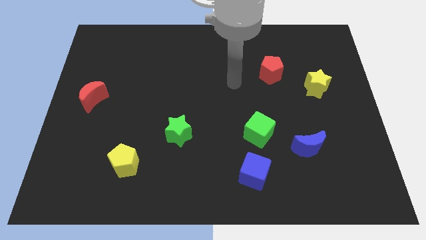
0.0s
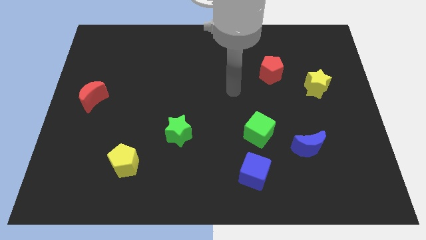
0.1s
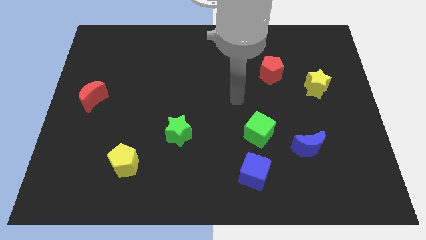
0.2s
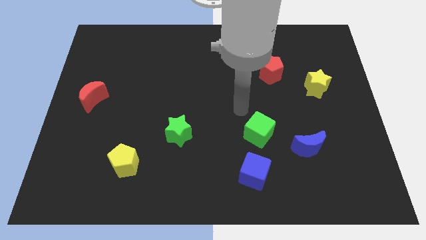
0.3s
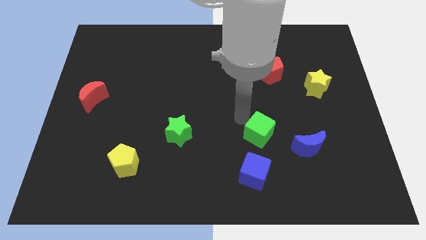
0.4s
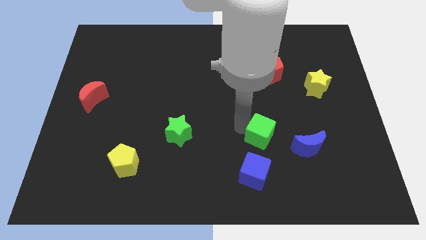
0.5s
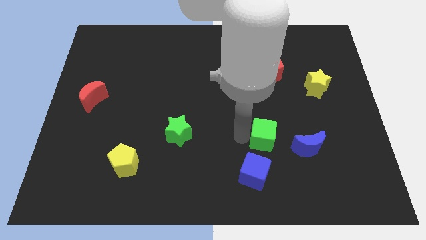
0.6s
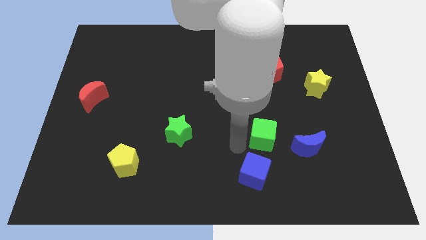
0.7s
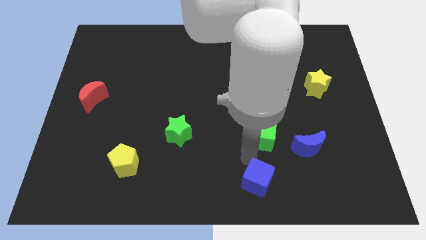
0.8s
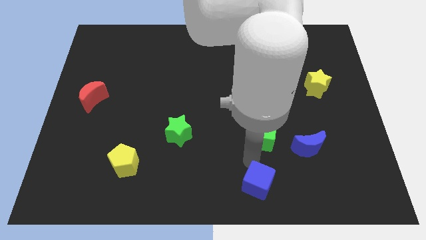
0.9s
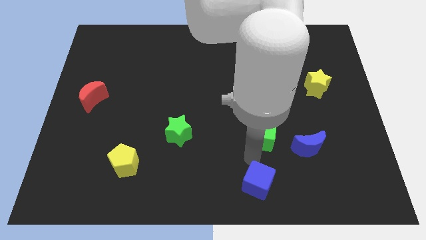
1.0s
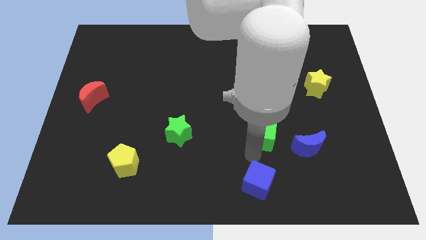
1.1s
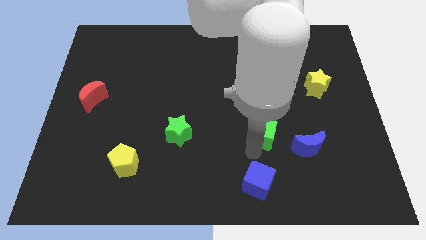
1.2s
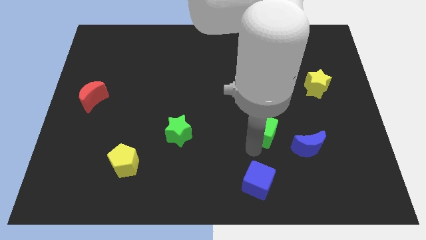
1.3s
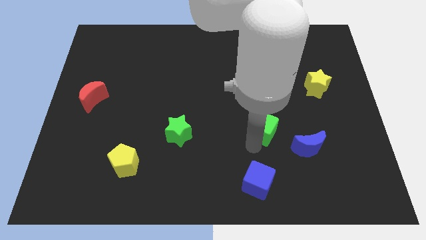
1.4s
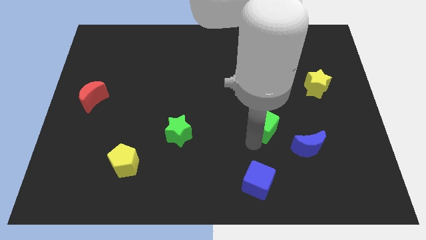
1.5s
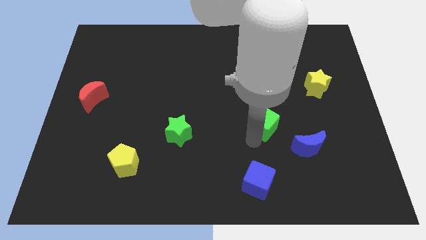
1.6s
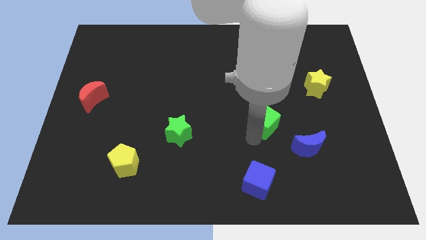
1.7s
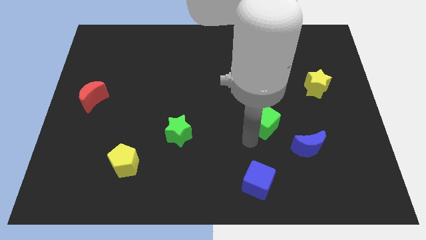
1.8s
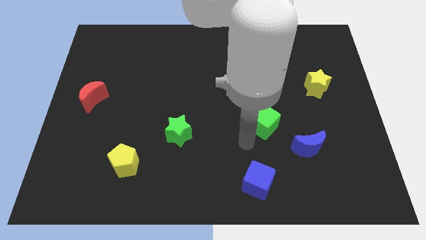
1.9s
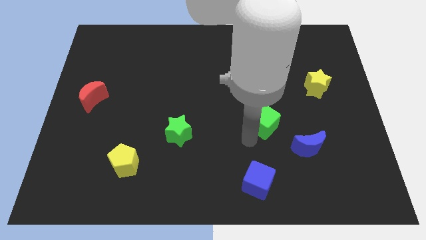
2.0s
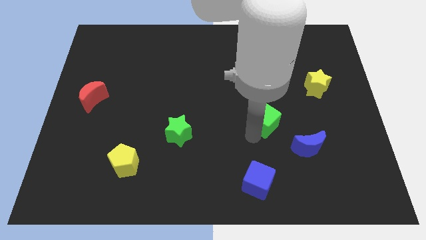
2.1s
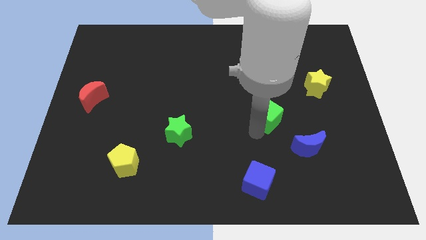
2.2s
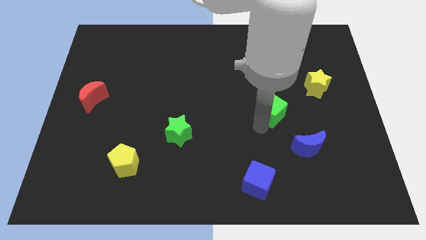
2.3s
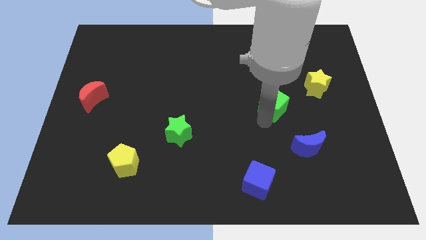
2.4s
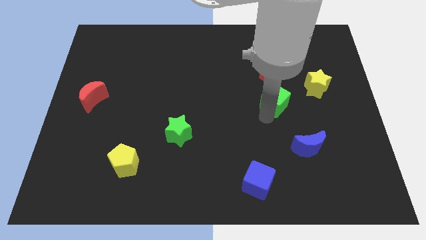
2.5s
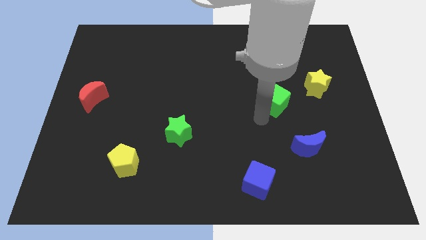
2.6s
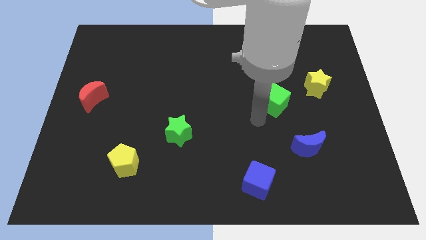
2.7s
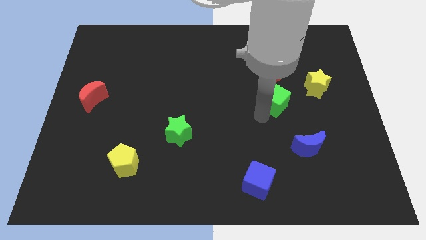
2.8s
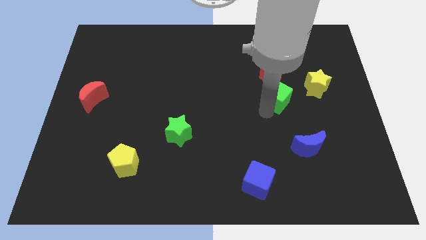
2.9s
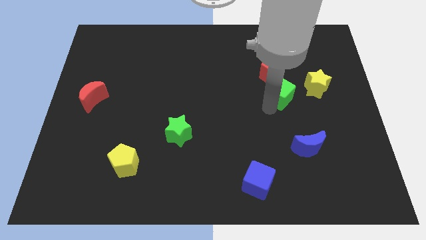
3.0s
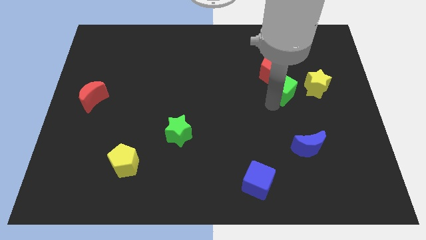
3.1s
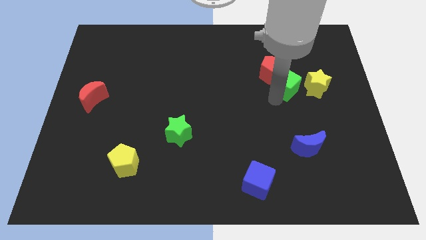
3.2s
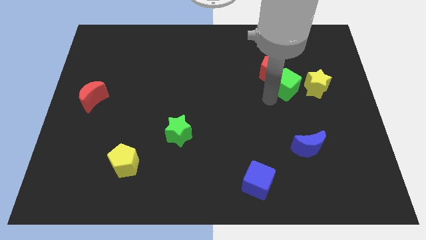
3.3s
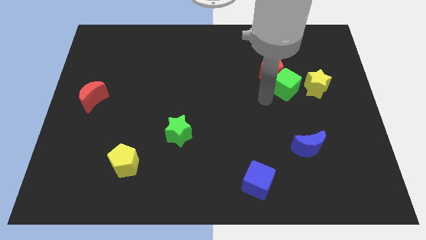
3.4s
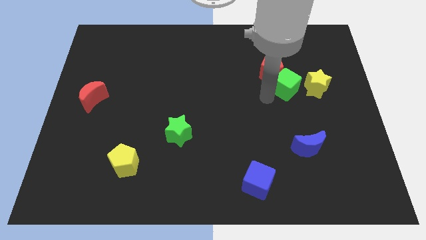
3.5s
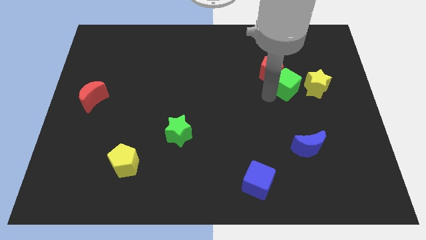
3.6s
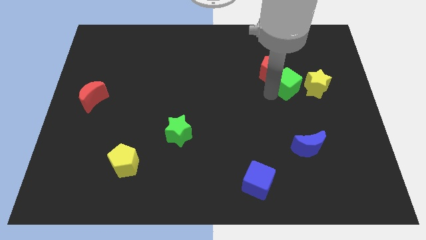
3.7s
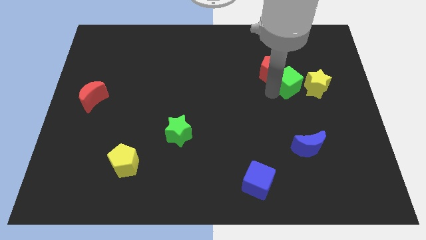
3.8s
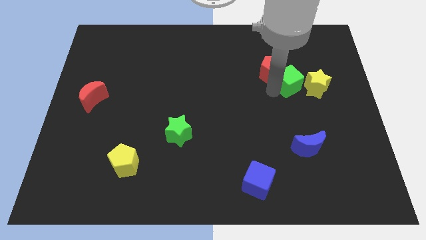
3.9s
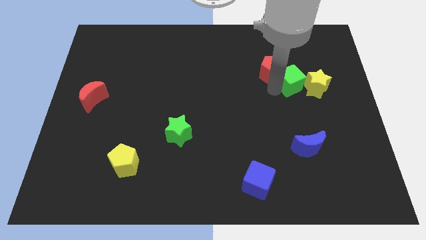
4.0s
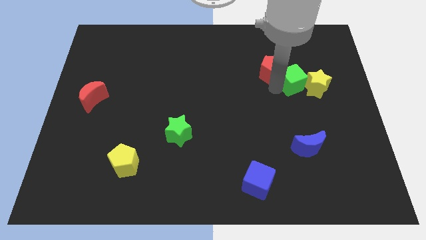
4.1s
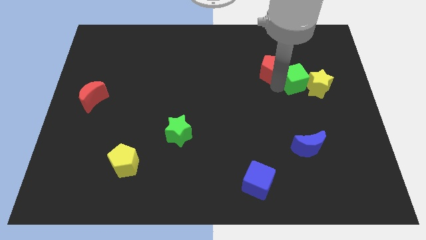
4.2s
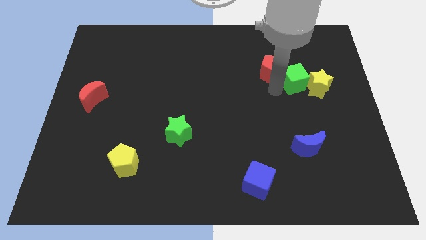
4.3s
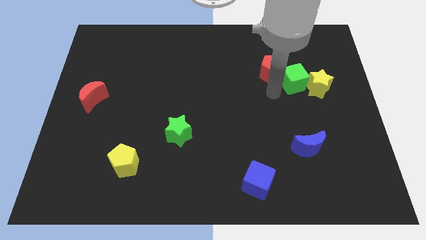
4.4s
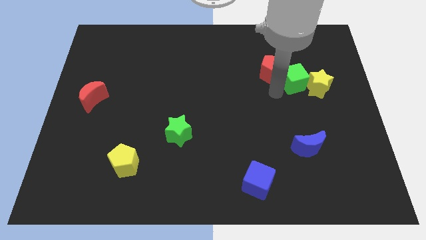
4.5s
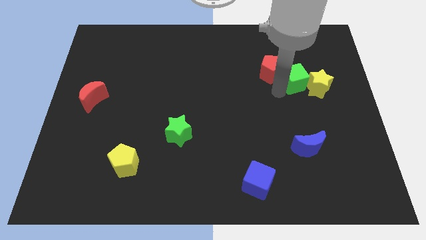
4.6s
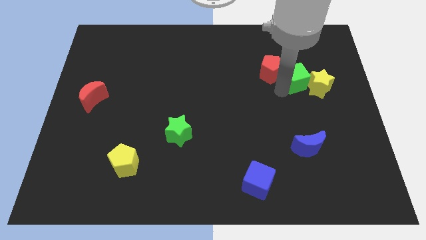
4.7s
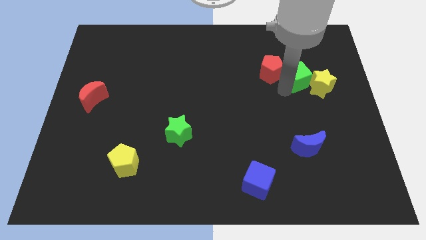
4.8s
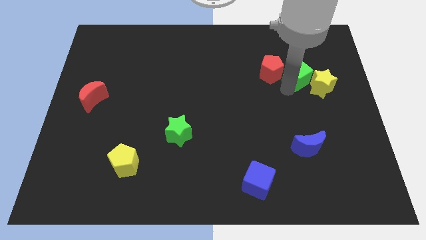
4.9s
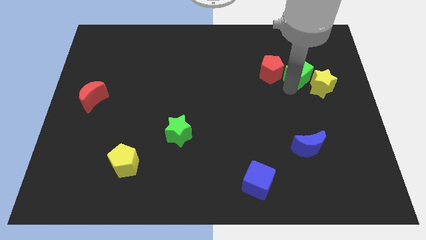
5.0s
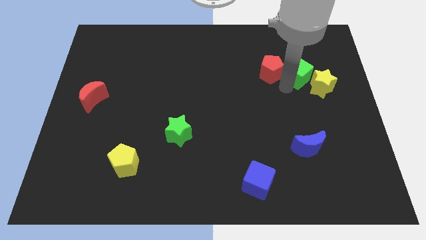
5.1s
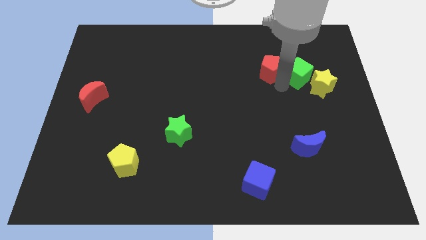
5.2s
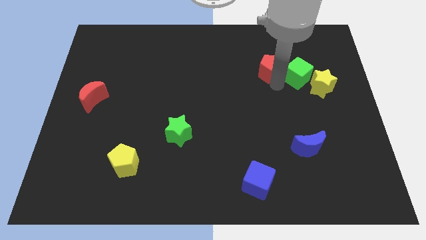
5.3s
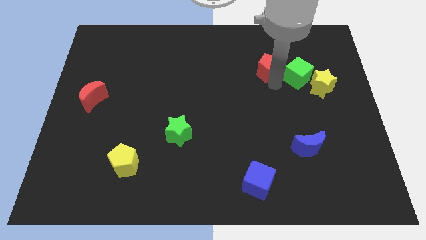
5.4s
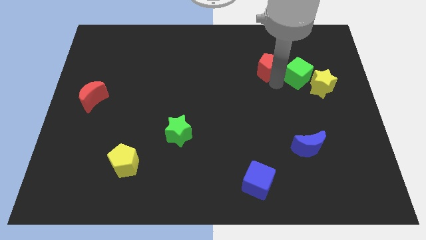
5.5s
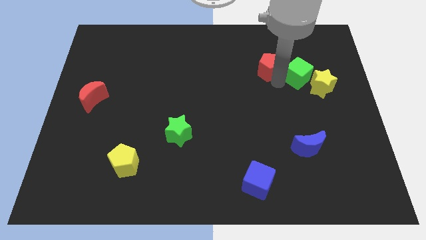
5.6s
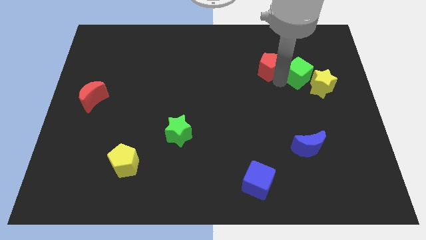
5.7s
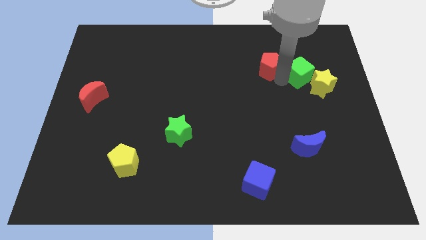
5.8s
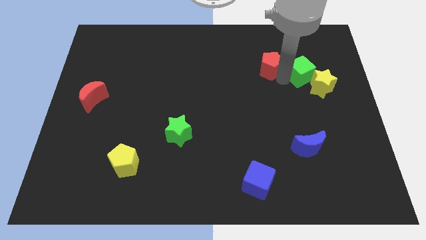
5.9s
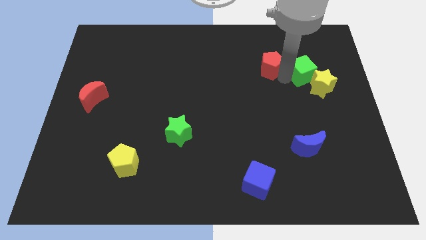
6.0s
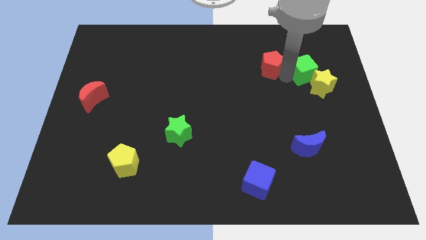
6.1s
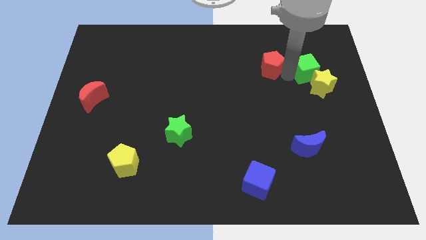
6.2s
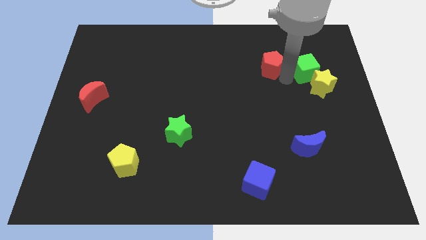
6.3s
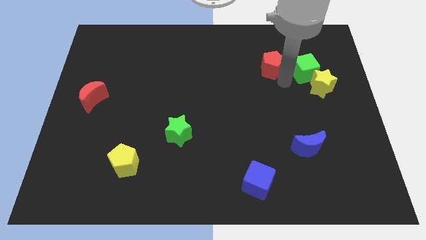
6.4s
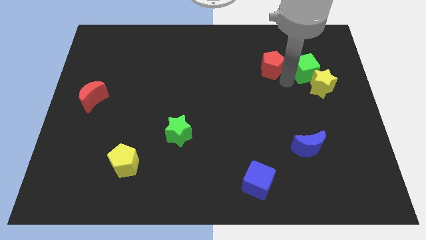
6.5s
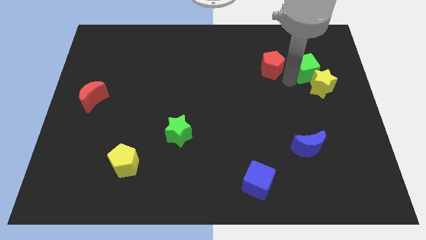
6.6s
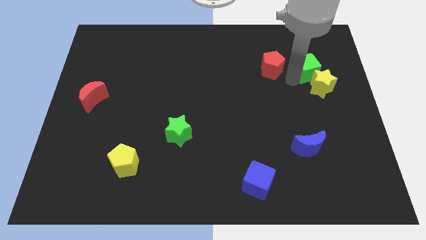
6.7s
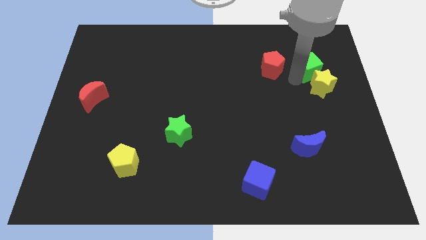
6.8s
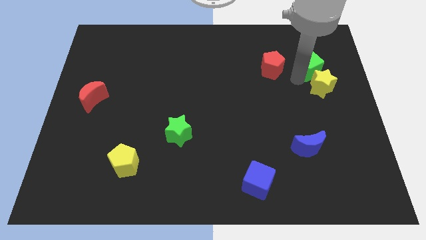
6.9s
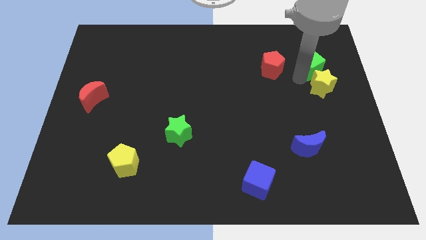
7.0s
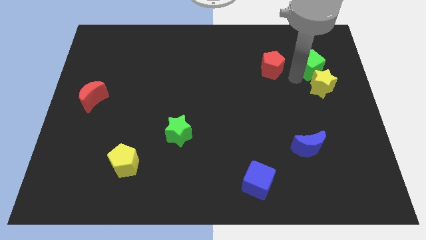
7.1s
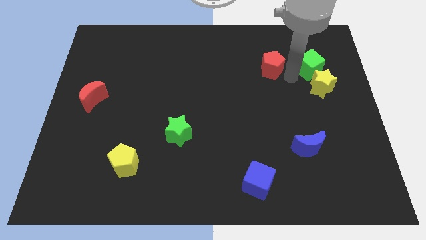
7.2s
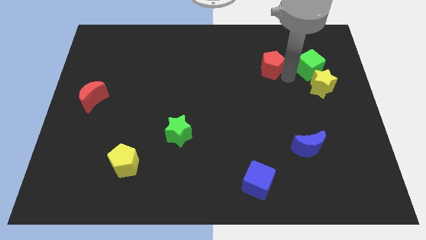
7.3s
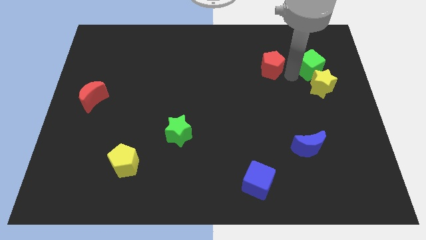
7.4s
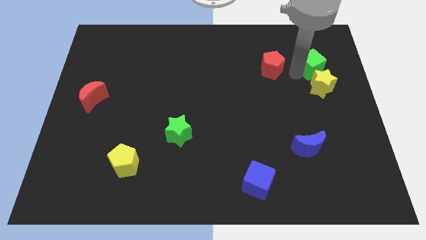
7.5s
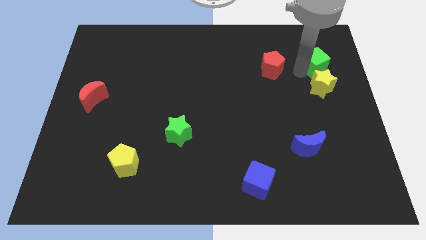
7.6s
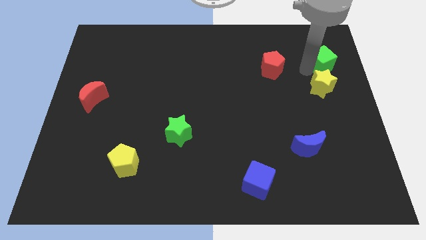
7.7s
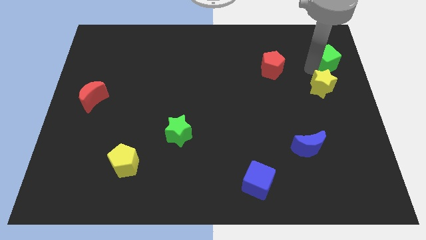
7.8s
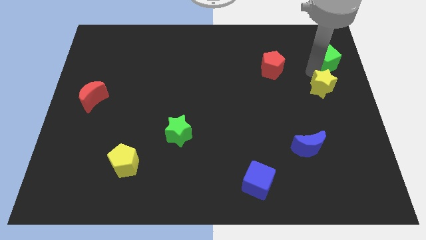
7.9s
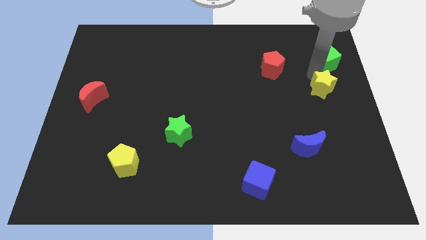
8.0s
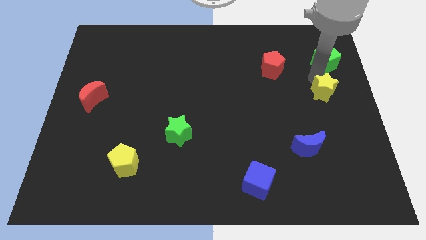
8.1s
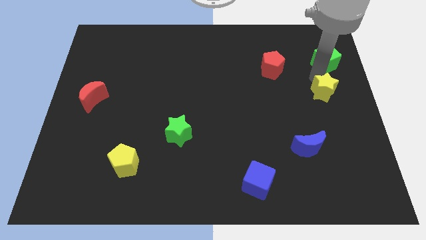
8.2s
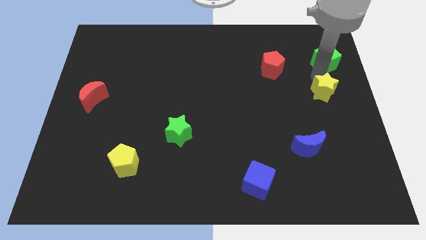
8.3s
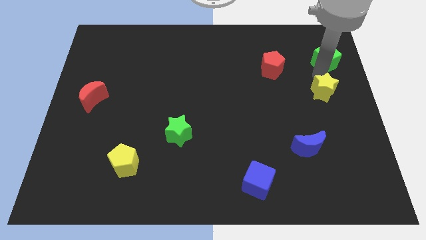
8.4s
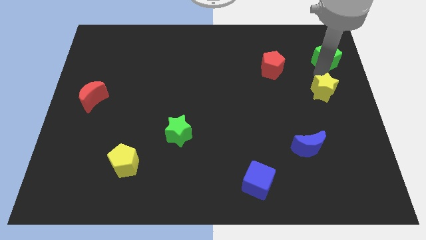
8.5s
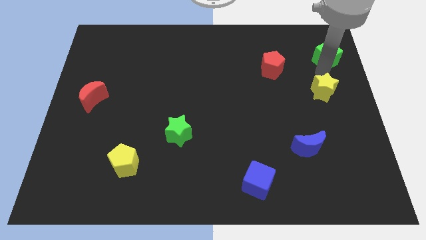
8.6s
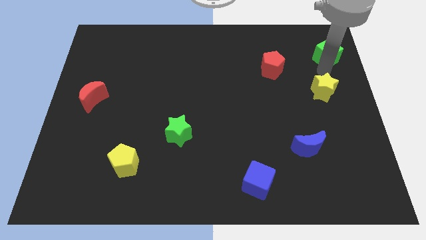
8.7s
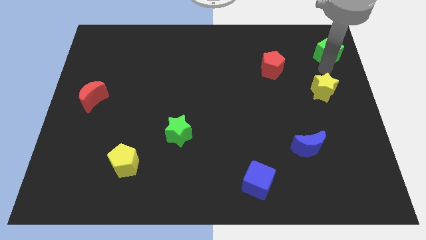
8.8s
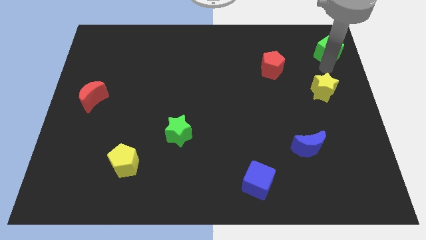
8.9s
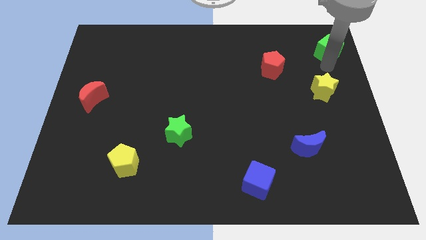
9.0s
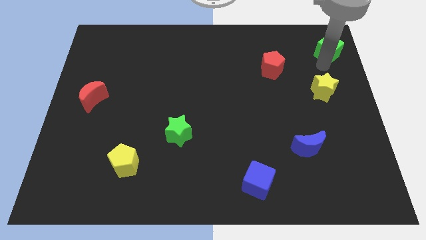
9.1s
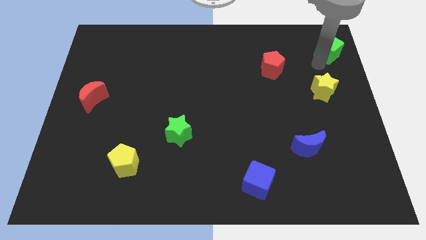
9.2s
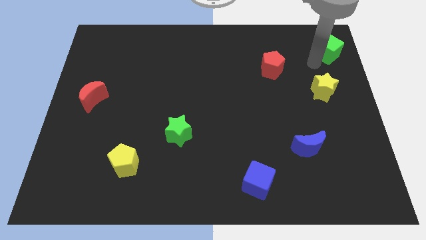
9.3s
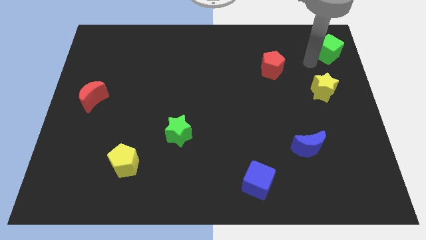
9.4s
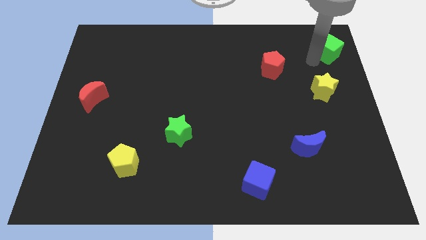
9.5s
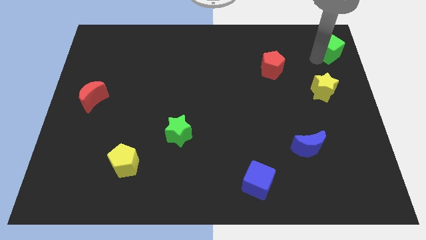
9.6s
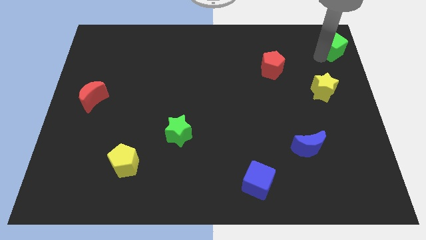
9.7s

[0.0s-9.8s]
slide the green cube to the upper right corner
